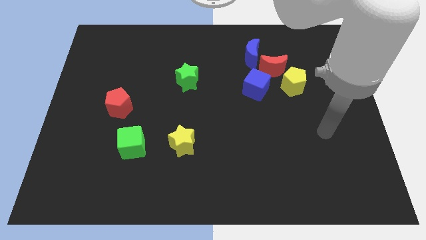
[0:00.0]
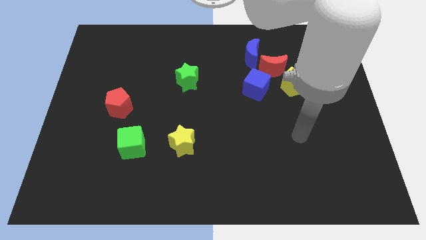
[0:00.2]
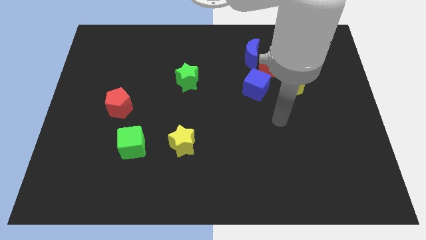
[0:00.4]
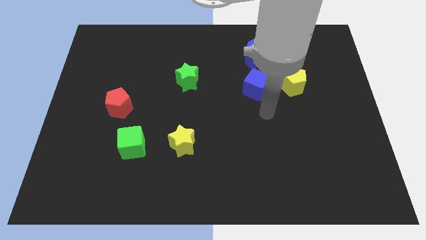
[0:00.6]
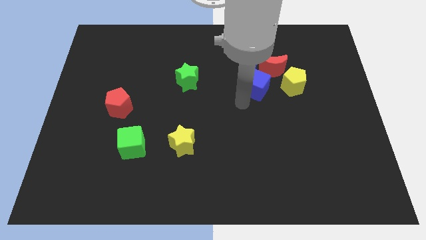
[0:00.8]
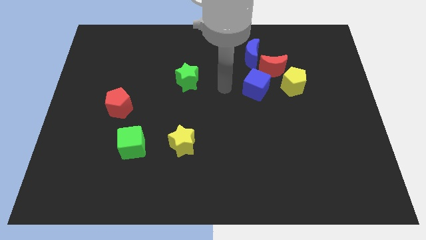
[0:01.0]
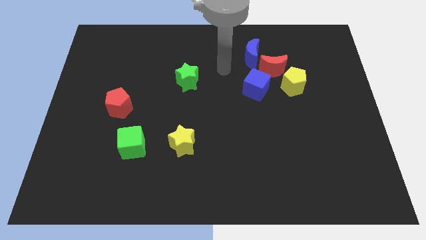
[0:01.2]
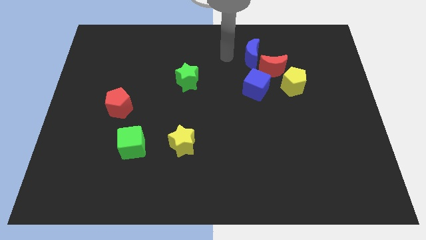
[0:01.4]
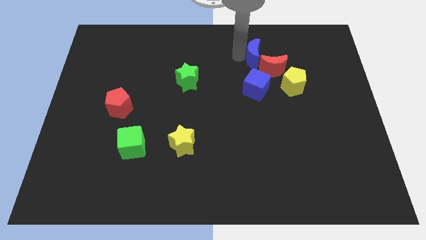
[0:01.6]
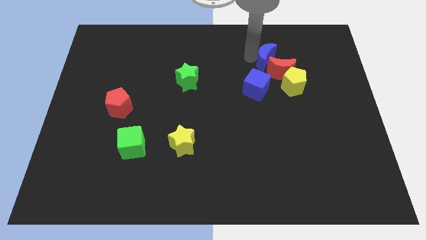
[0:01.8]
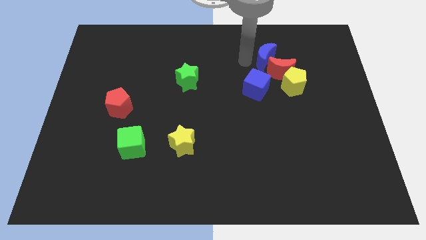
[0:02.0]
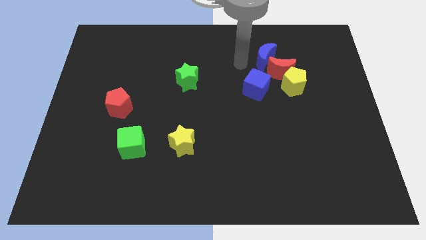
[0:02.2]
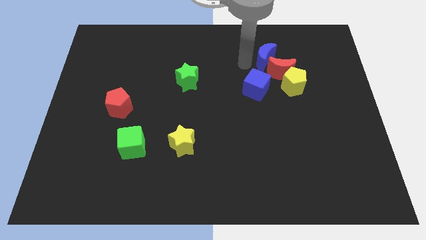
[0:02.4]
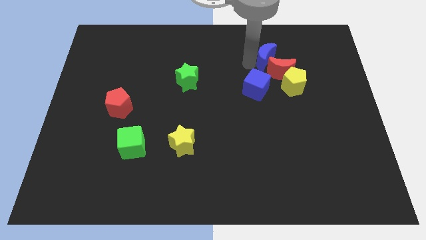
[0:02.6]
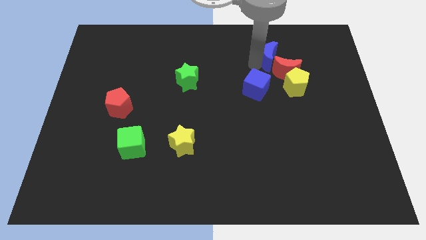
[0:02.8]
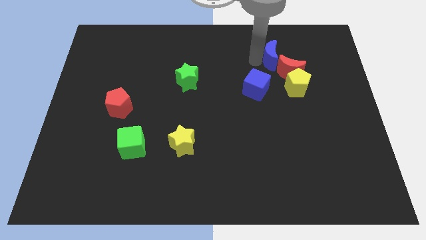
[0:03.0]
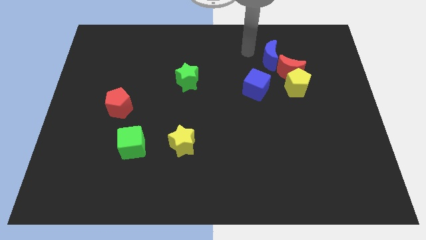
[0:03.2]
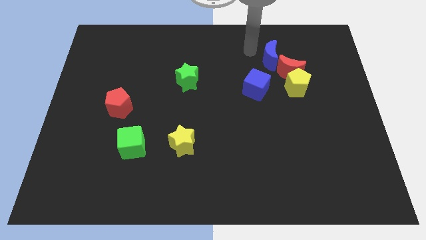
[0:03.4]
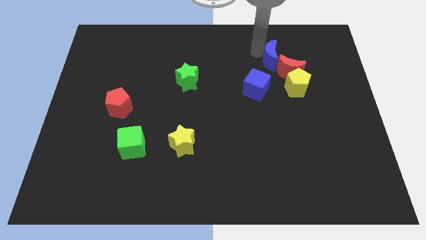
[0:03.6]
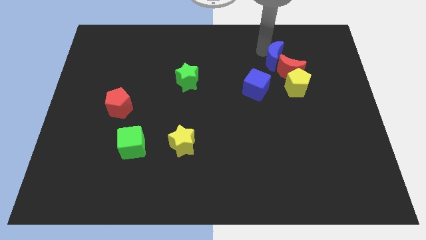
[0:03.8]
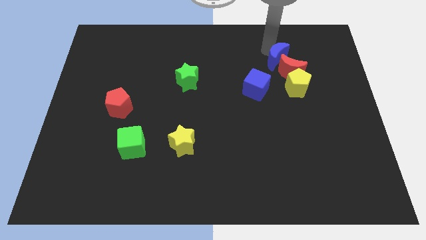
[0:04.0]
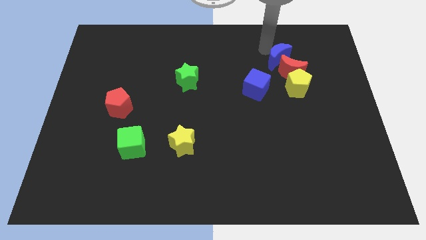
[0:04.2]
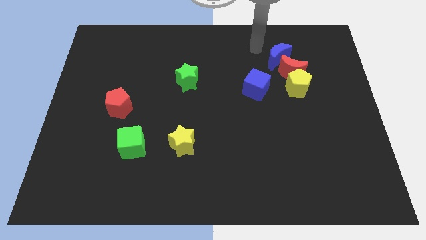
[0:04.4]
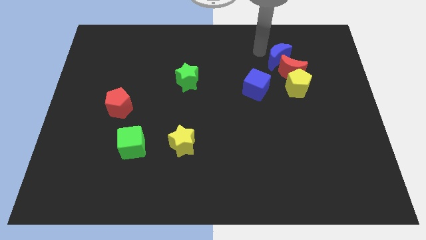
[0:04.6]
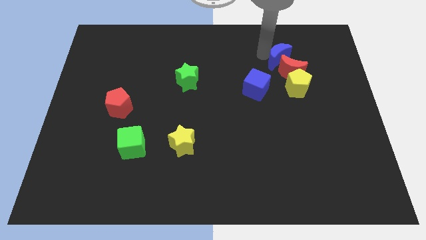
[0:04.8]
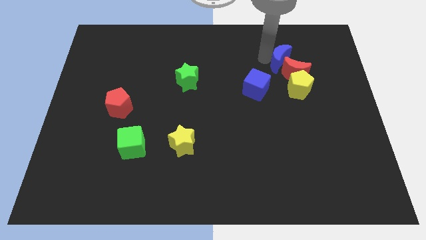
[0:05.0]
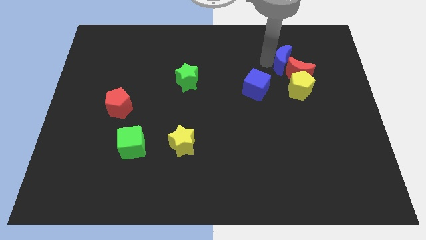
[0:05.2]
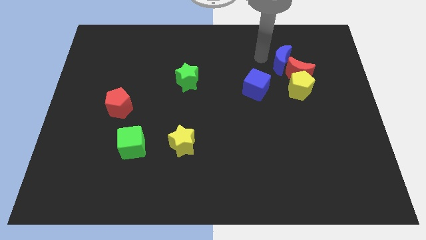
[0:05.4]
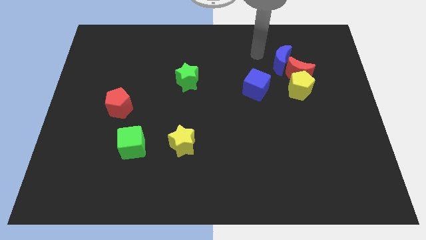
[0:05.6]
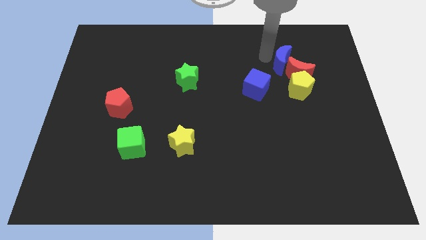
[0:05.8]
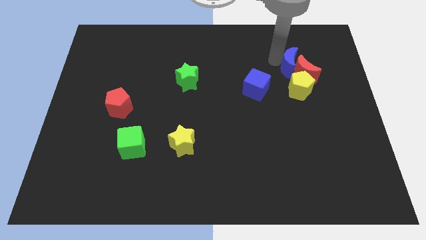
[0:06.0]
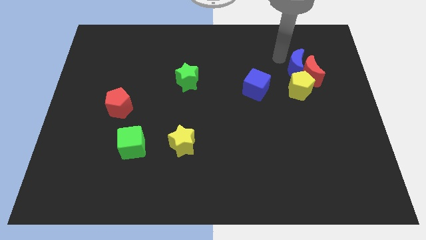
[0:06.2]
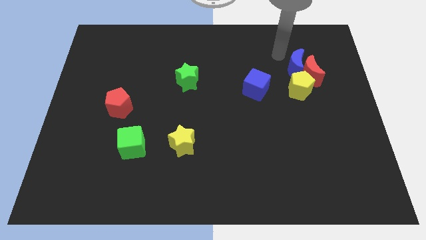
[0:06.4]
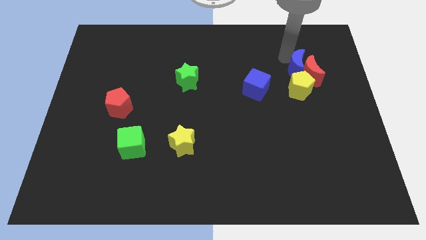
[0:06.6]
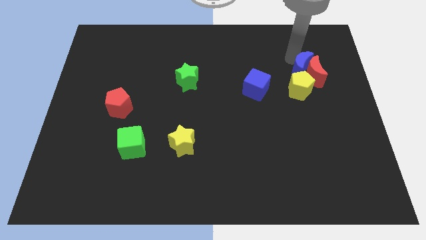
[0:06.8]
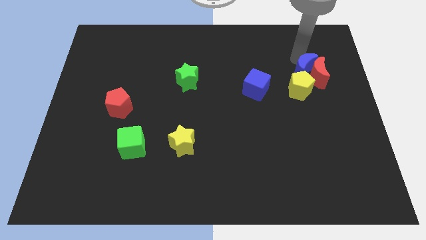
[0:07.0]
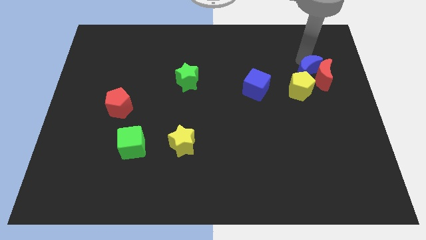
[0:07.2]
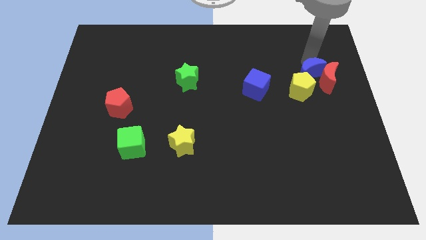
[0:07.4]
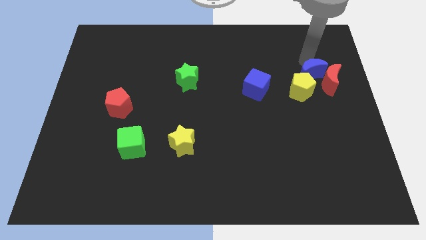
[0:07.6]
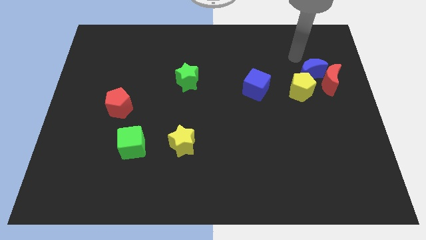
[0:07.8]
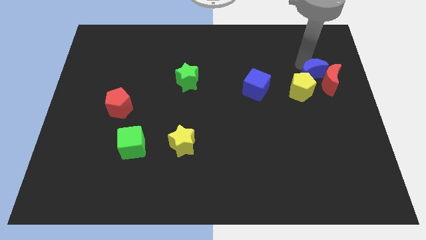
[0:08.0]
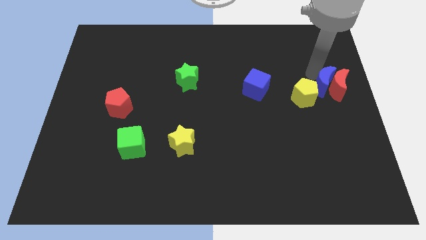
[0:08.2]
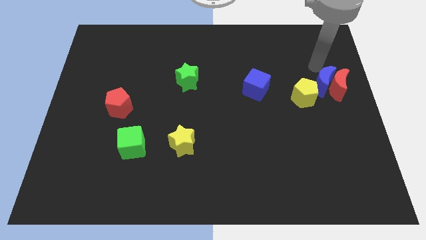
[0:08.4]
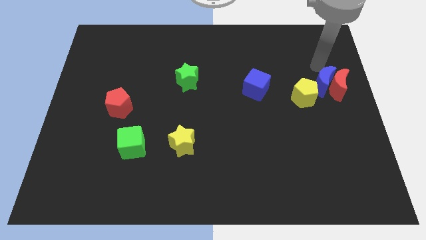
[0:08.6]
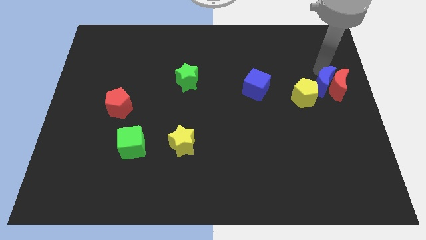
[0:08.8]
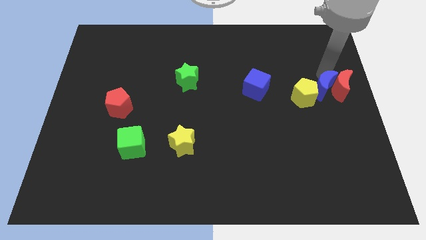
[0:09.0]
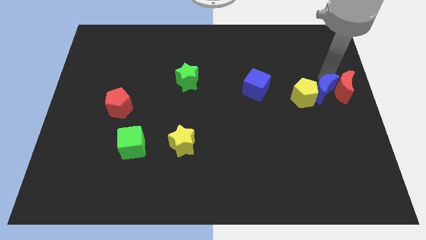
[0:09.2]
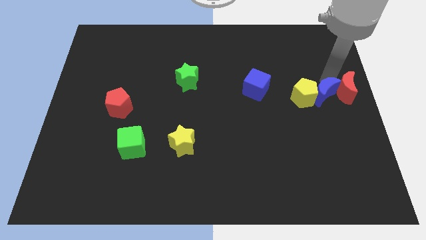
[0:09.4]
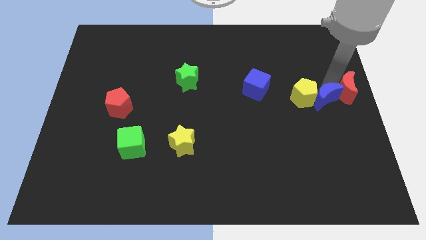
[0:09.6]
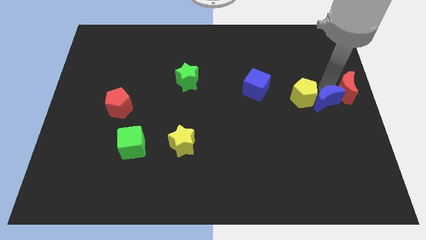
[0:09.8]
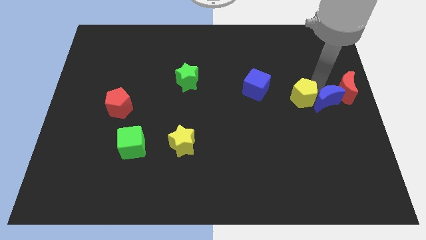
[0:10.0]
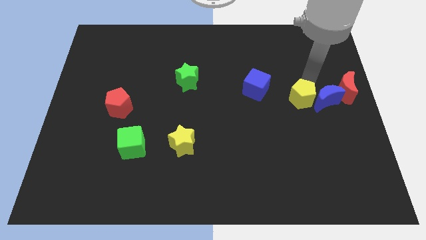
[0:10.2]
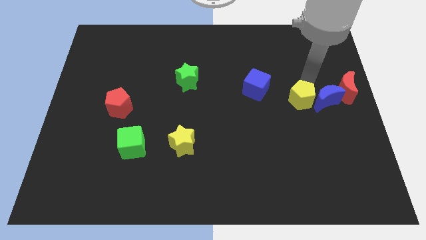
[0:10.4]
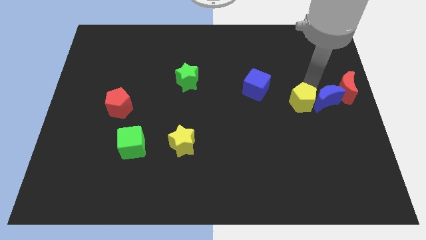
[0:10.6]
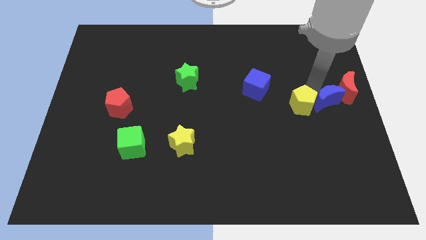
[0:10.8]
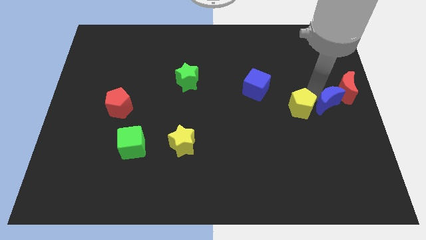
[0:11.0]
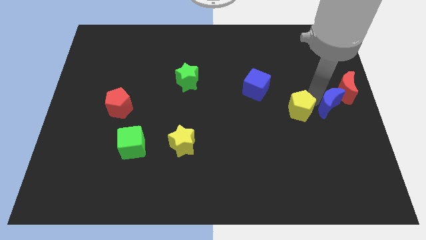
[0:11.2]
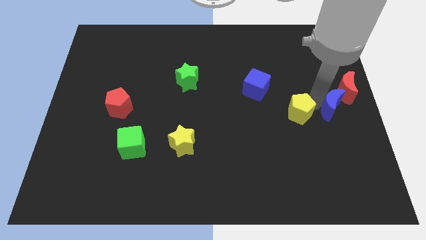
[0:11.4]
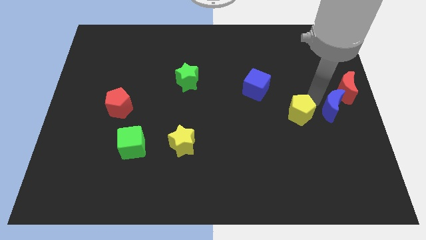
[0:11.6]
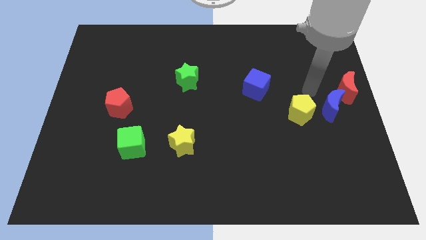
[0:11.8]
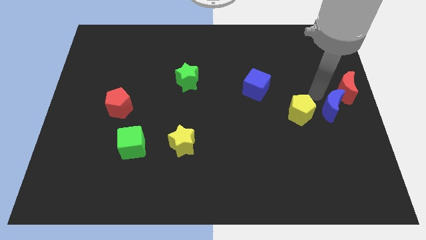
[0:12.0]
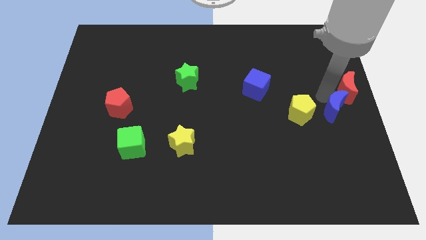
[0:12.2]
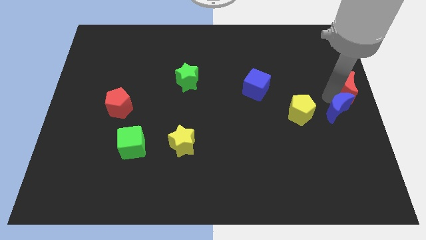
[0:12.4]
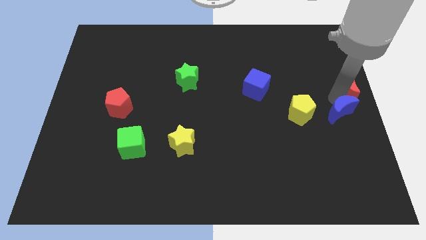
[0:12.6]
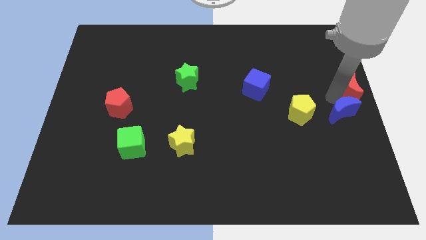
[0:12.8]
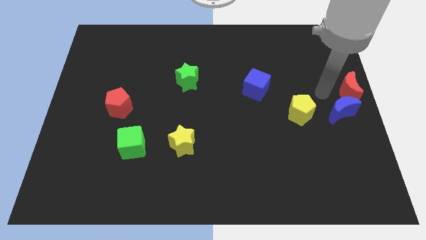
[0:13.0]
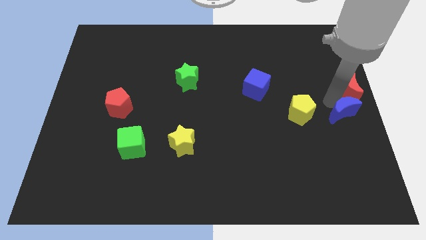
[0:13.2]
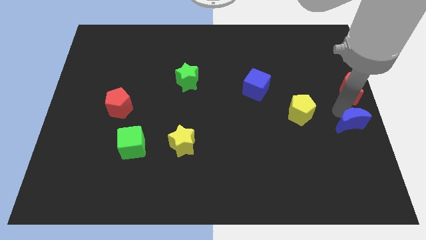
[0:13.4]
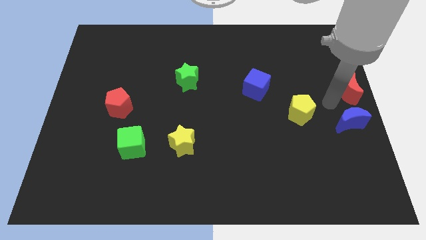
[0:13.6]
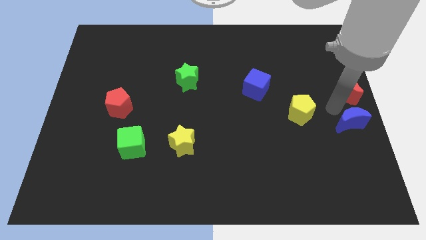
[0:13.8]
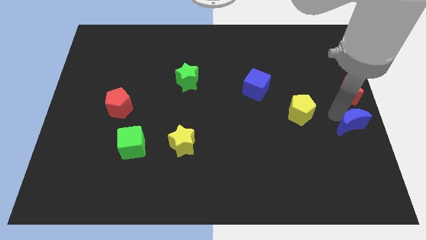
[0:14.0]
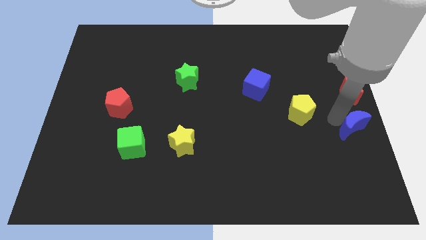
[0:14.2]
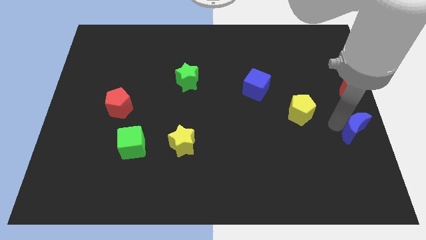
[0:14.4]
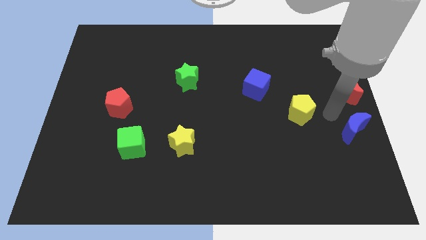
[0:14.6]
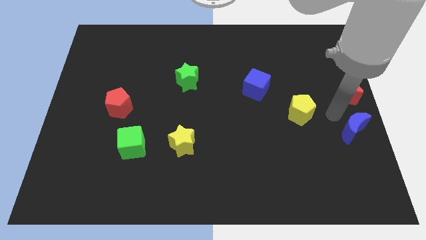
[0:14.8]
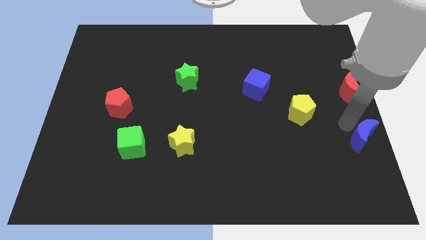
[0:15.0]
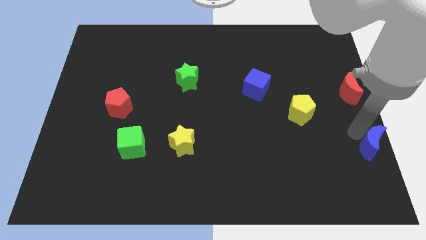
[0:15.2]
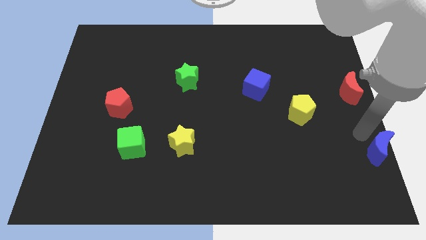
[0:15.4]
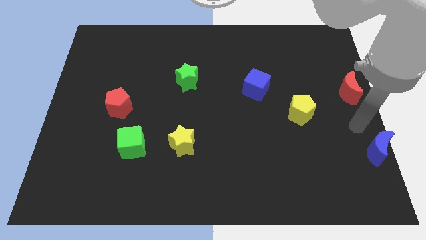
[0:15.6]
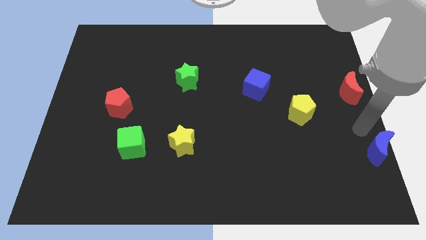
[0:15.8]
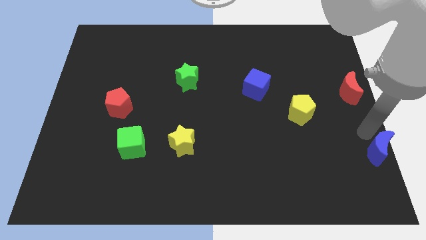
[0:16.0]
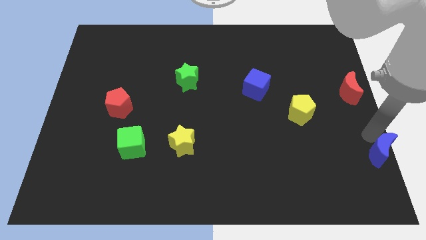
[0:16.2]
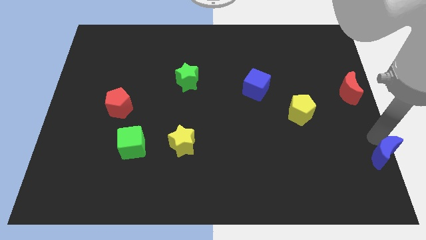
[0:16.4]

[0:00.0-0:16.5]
push the blue moon to the lower right corner
